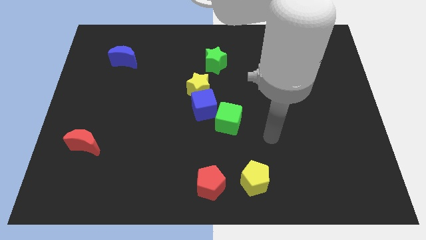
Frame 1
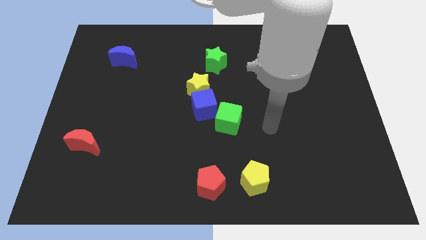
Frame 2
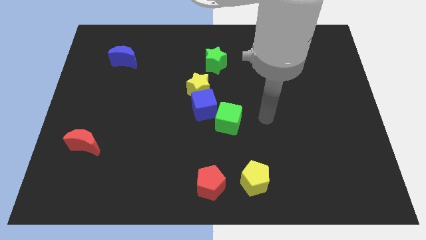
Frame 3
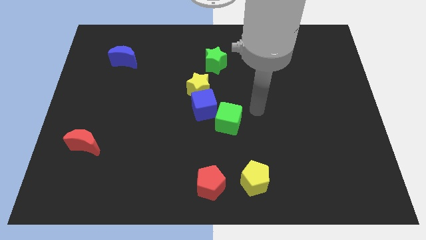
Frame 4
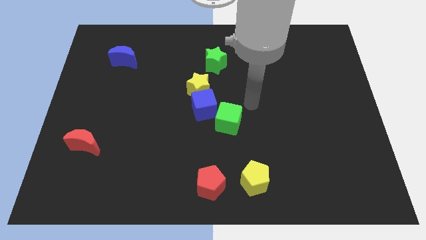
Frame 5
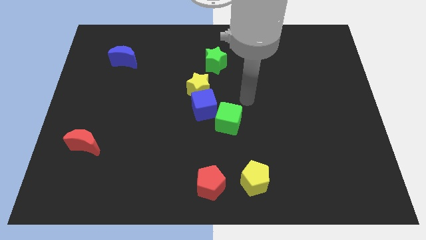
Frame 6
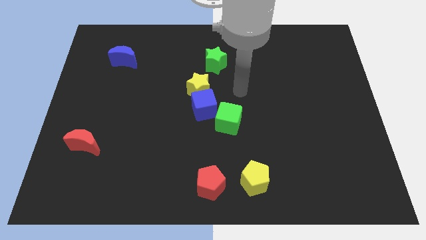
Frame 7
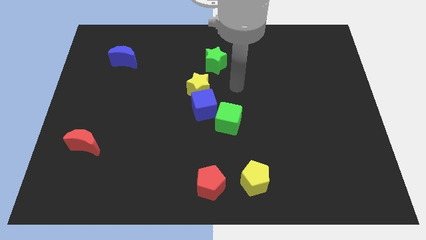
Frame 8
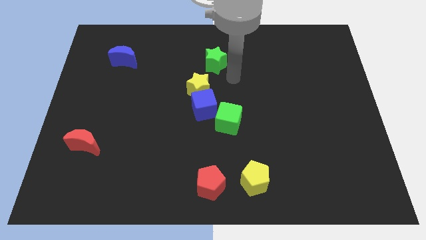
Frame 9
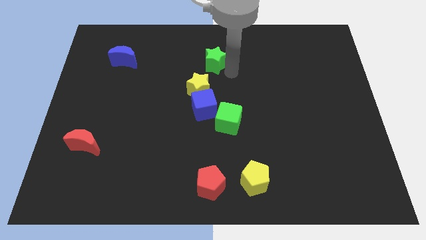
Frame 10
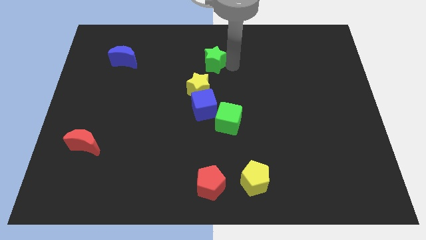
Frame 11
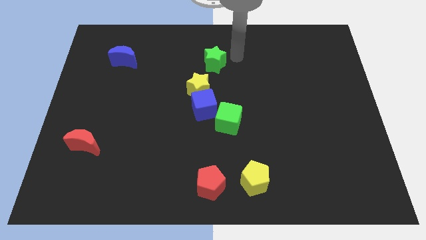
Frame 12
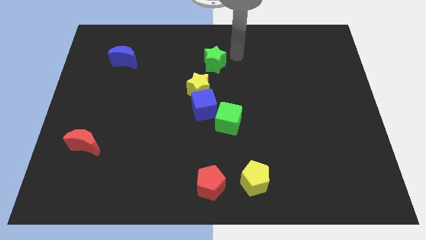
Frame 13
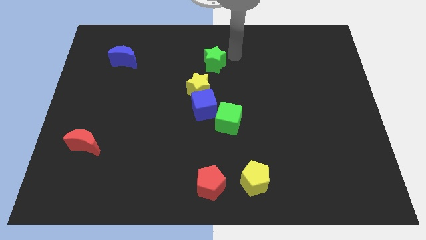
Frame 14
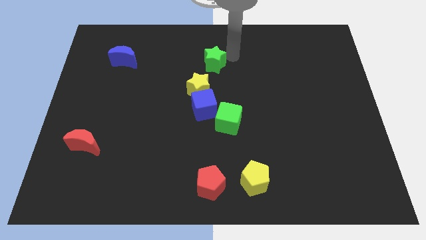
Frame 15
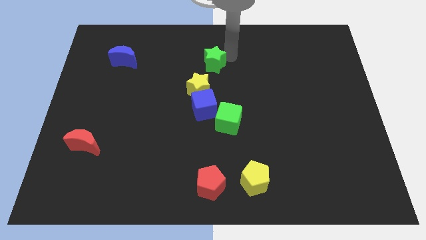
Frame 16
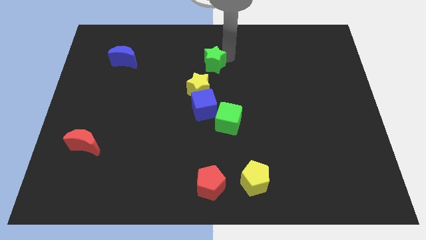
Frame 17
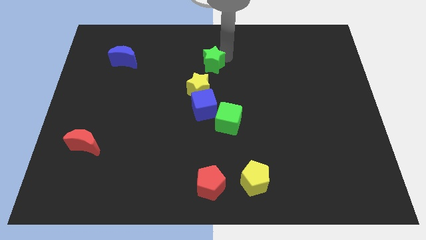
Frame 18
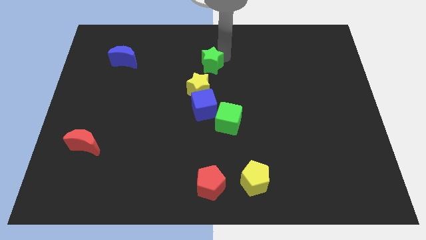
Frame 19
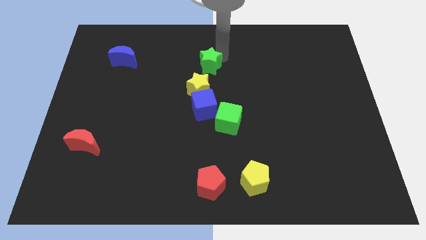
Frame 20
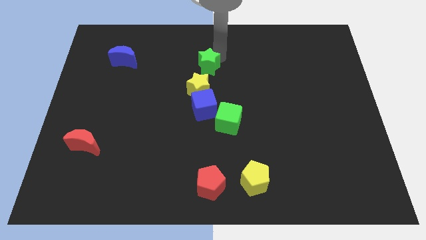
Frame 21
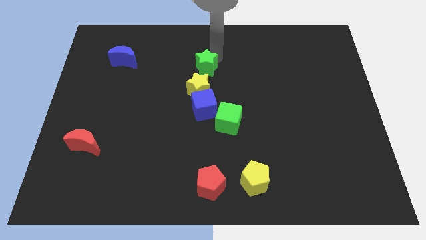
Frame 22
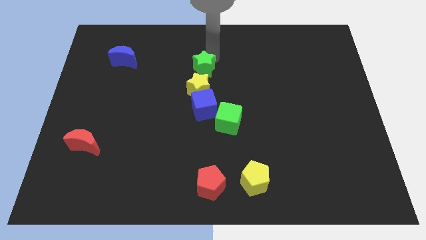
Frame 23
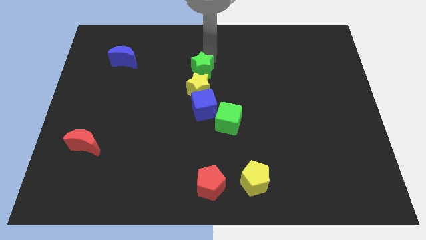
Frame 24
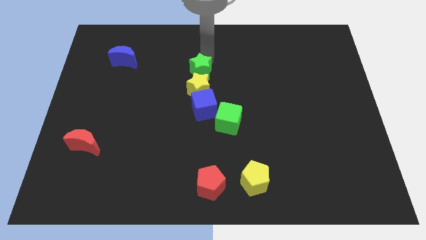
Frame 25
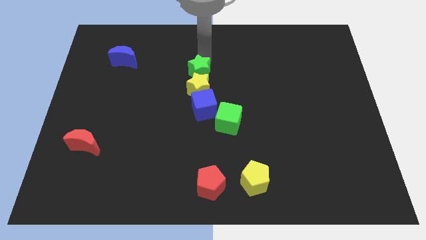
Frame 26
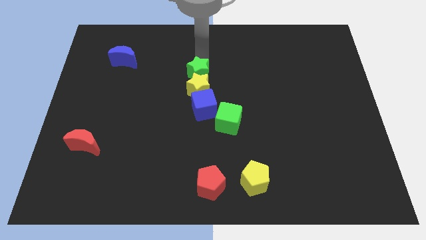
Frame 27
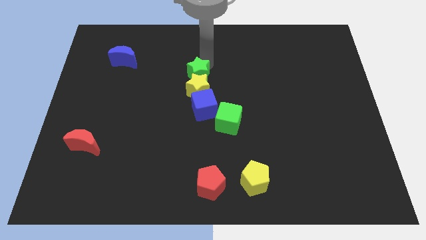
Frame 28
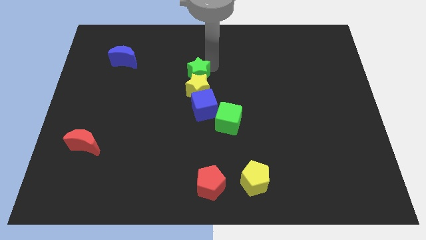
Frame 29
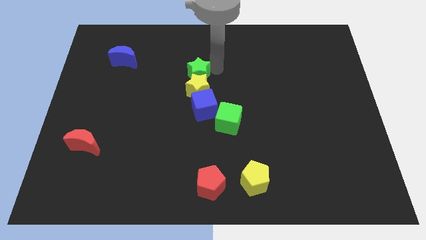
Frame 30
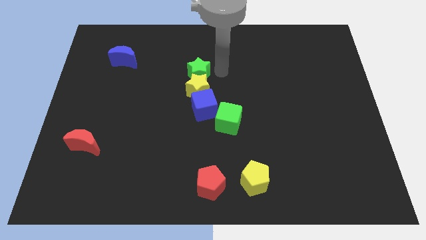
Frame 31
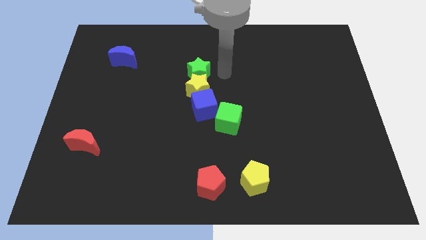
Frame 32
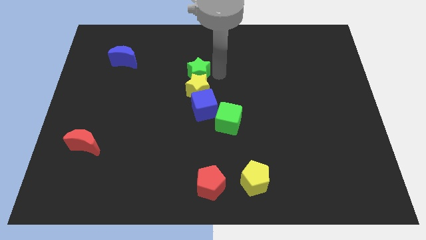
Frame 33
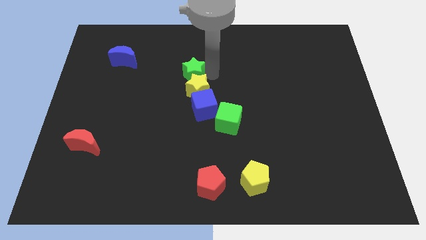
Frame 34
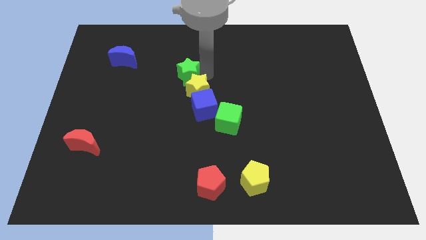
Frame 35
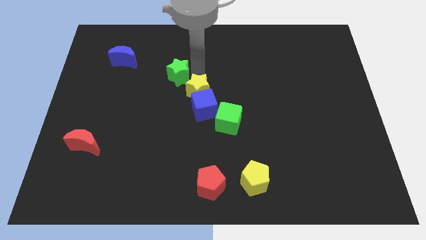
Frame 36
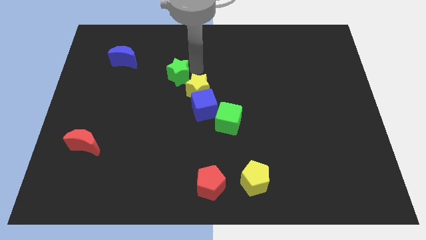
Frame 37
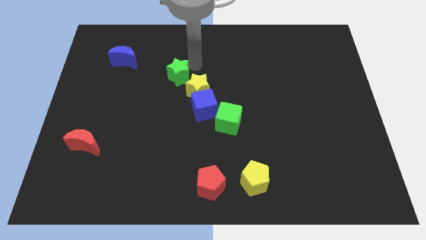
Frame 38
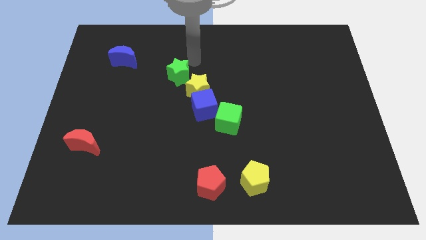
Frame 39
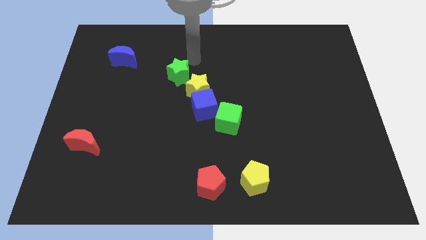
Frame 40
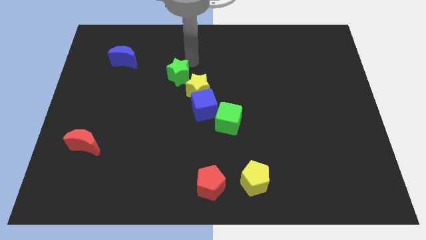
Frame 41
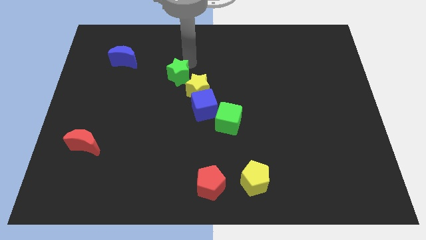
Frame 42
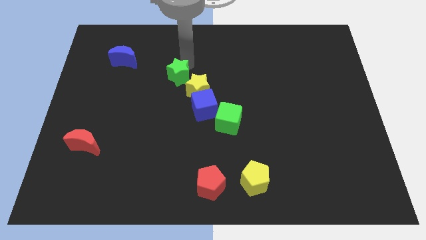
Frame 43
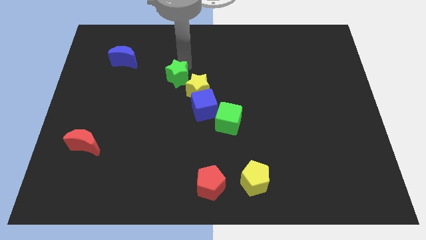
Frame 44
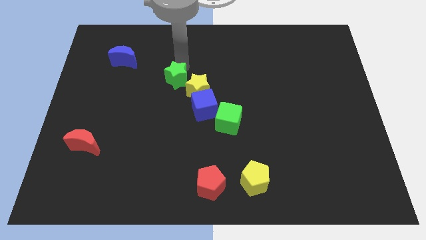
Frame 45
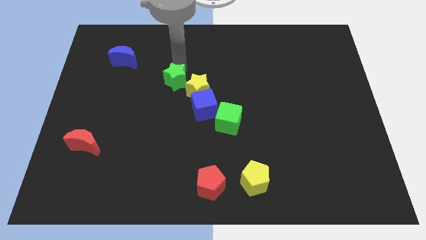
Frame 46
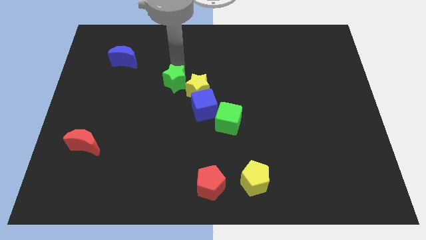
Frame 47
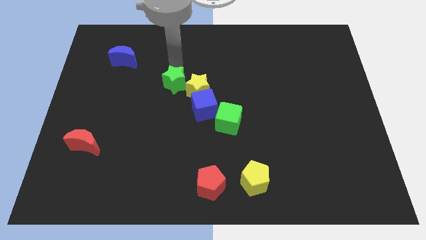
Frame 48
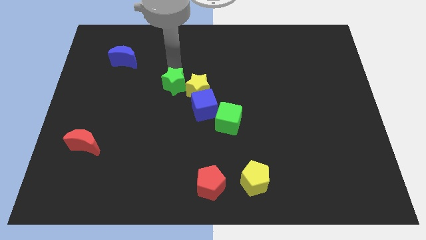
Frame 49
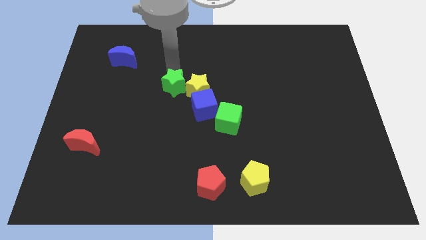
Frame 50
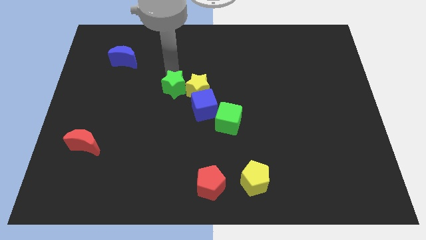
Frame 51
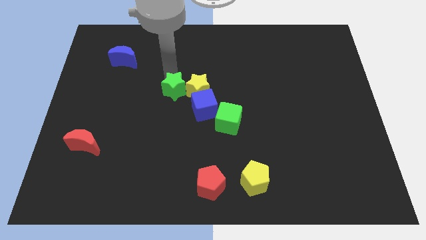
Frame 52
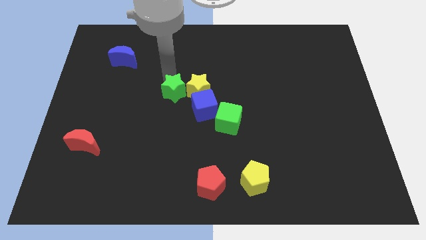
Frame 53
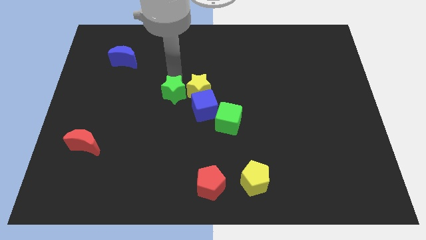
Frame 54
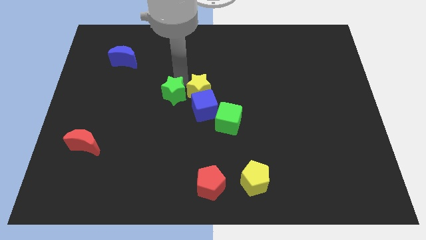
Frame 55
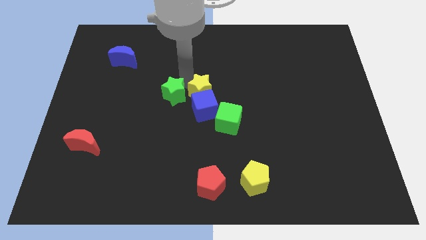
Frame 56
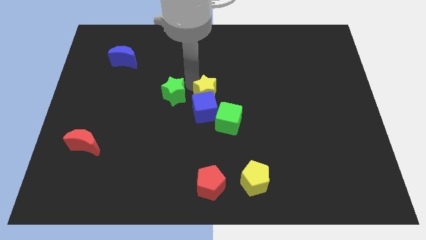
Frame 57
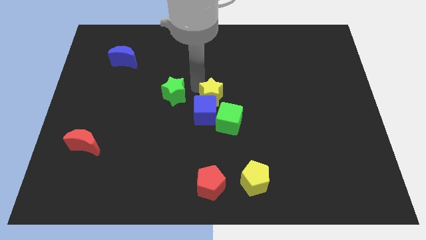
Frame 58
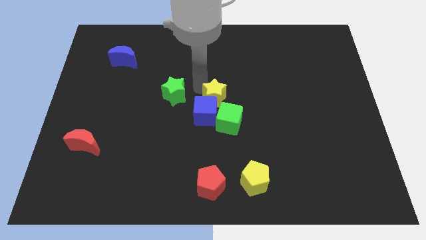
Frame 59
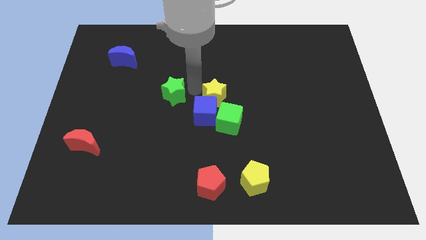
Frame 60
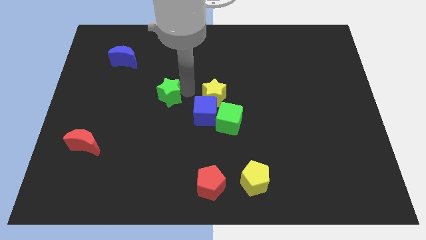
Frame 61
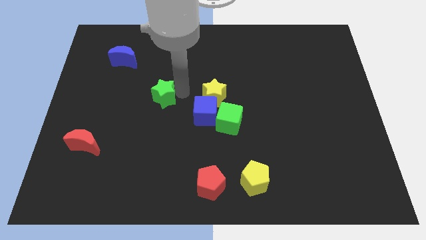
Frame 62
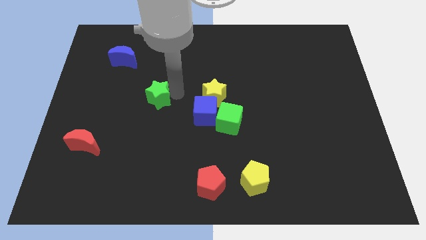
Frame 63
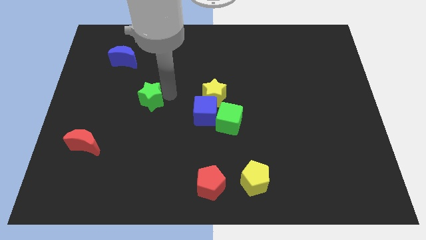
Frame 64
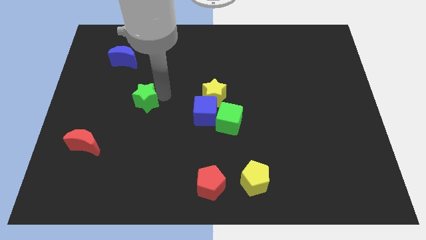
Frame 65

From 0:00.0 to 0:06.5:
move the green star down and left

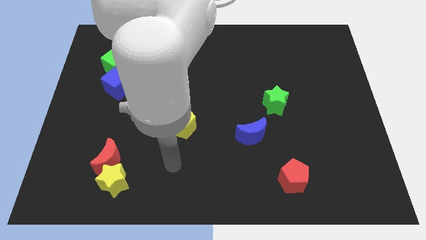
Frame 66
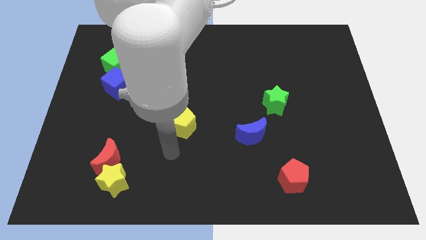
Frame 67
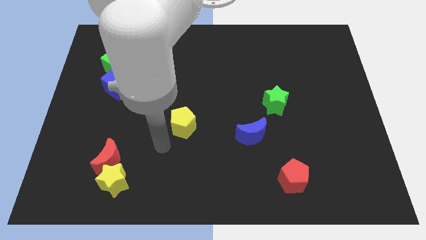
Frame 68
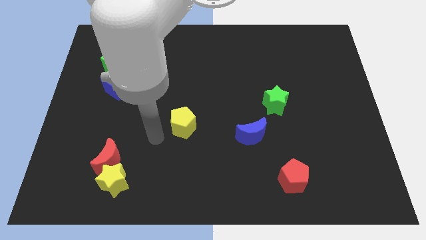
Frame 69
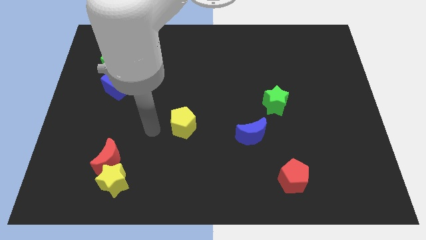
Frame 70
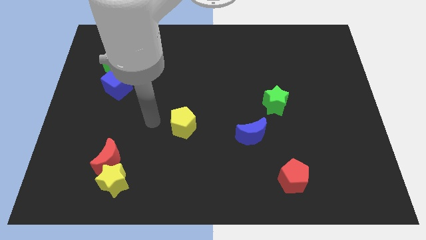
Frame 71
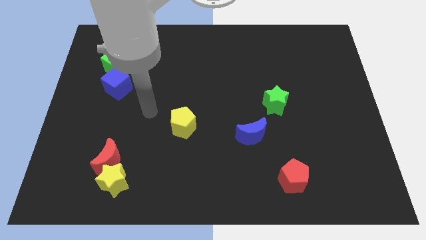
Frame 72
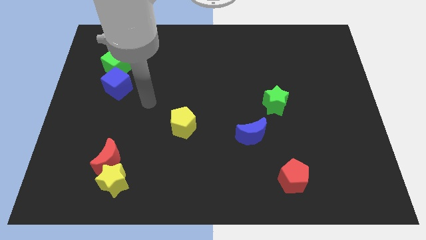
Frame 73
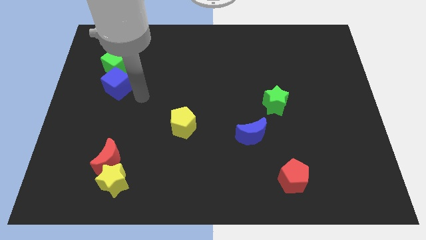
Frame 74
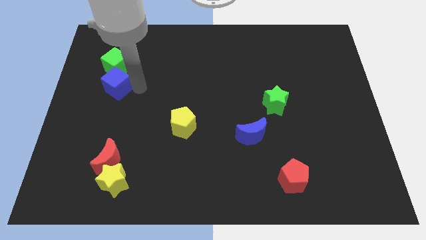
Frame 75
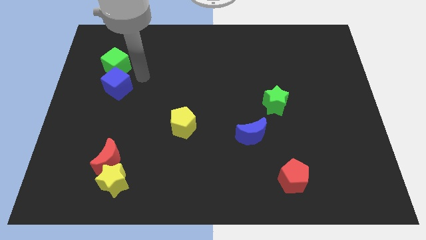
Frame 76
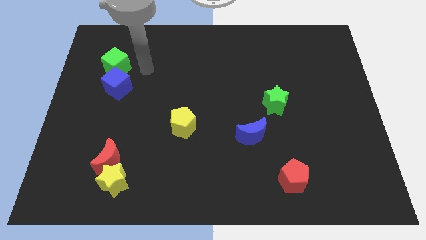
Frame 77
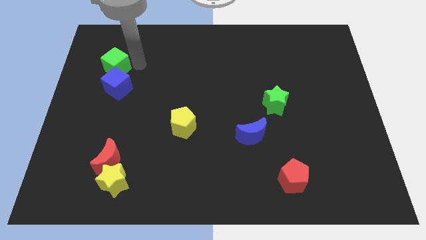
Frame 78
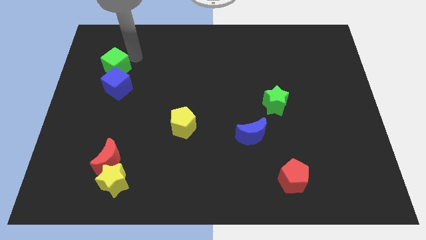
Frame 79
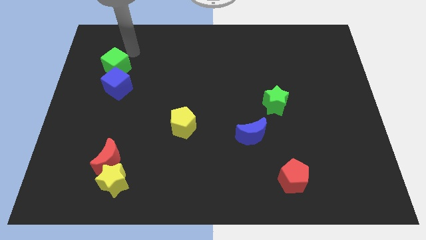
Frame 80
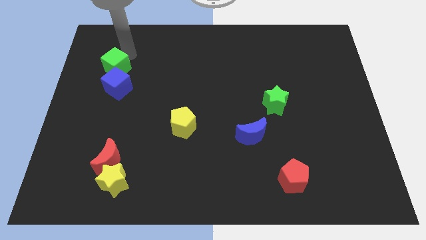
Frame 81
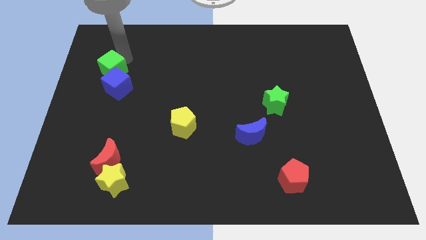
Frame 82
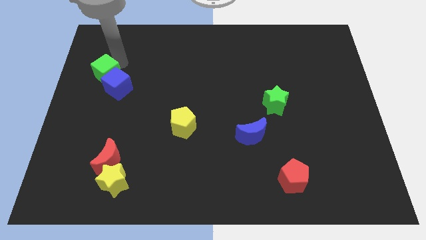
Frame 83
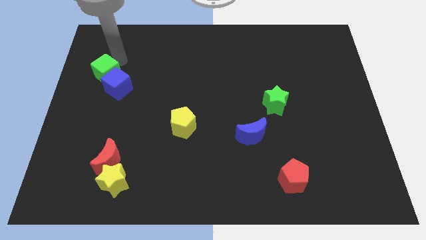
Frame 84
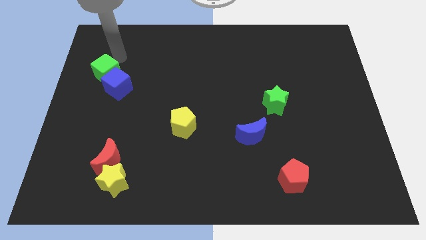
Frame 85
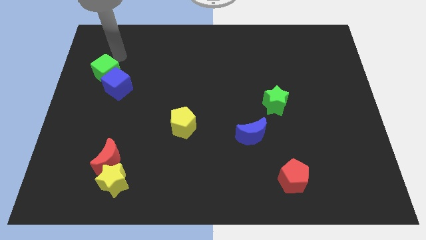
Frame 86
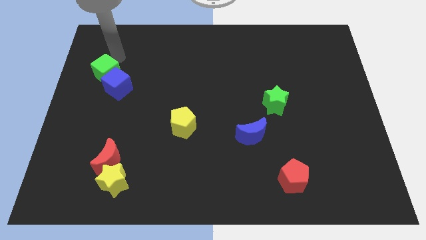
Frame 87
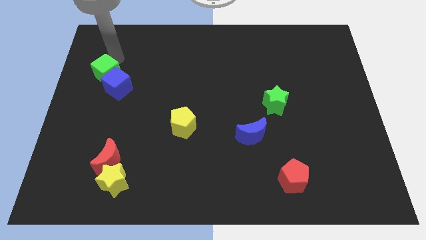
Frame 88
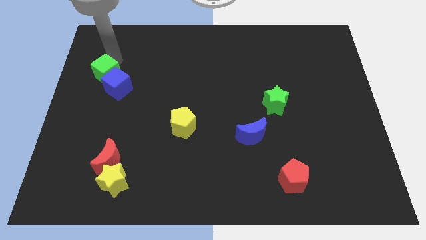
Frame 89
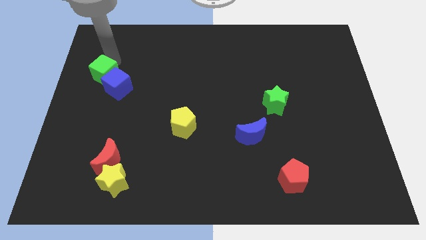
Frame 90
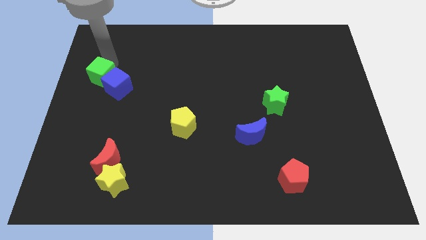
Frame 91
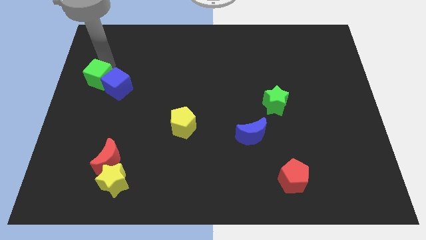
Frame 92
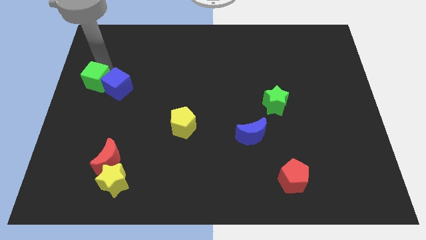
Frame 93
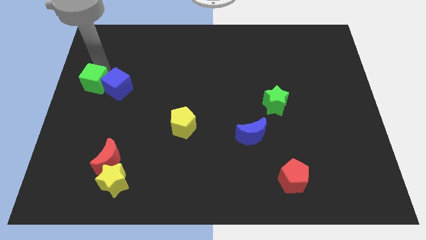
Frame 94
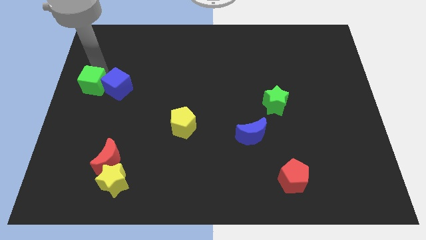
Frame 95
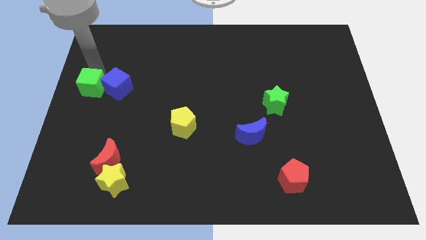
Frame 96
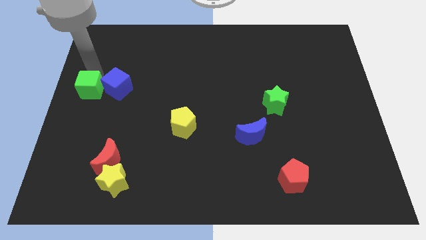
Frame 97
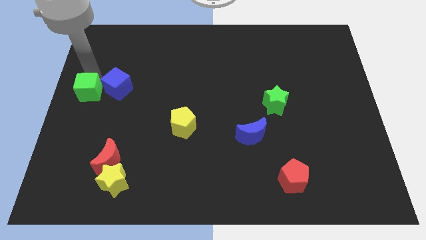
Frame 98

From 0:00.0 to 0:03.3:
slightly move the green cube down
